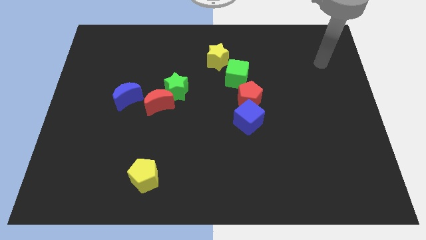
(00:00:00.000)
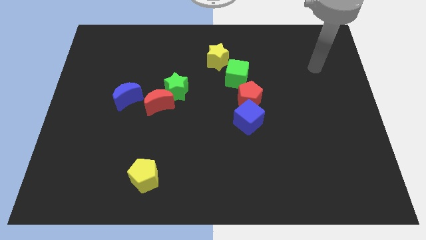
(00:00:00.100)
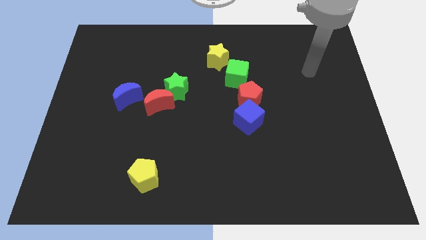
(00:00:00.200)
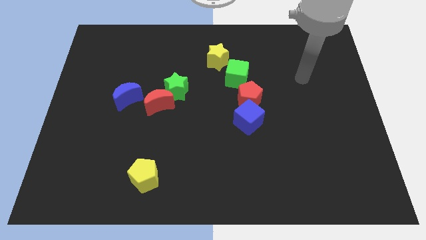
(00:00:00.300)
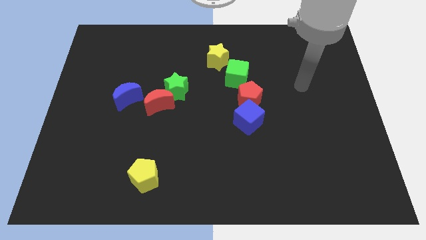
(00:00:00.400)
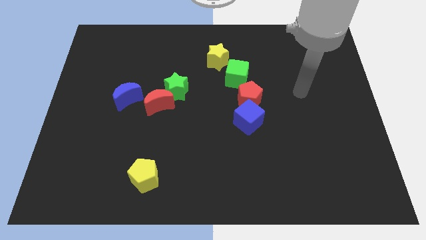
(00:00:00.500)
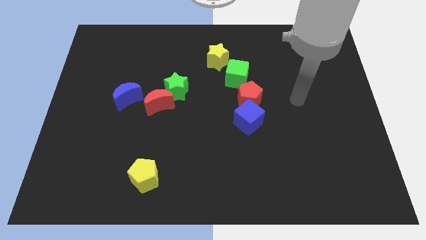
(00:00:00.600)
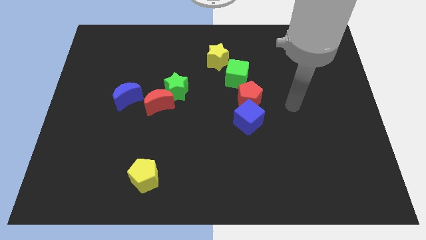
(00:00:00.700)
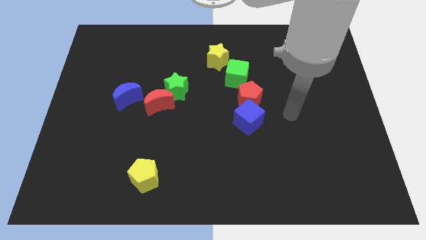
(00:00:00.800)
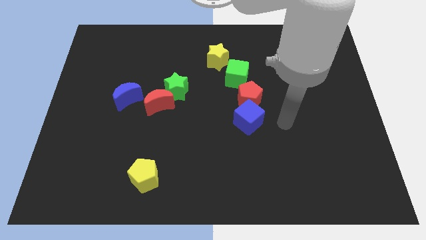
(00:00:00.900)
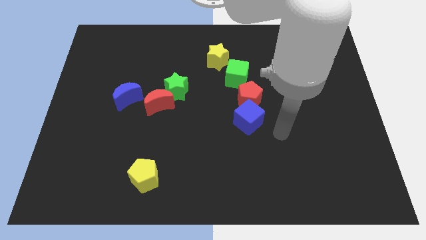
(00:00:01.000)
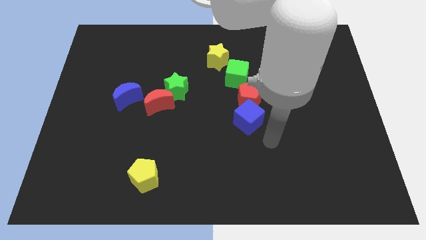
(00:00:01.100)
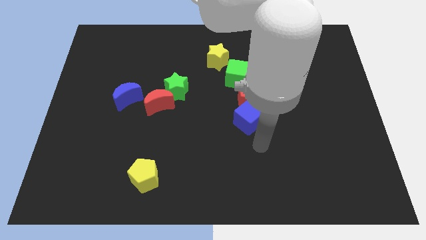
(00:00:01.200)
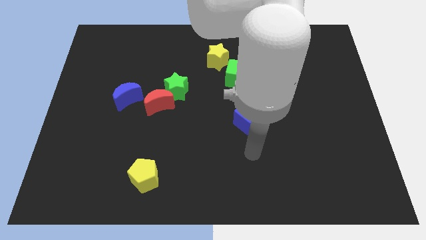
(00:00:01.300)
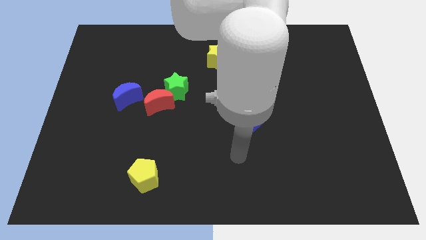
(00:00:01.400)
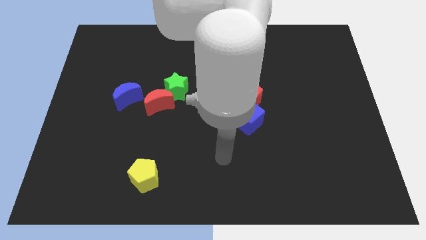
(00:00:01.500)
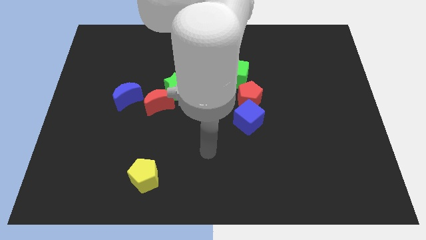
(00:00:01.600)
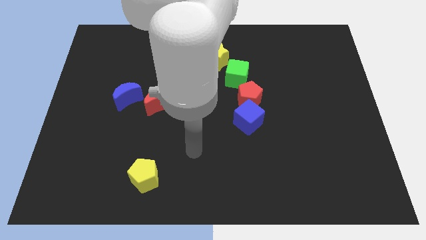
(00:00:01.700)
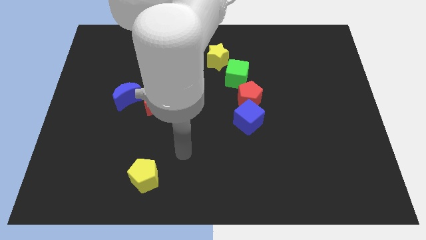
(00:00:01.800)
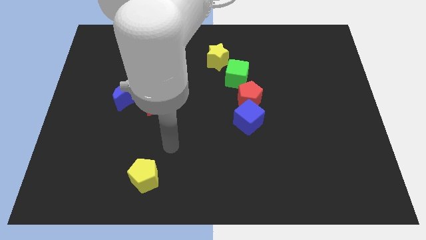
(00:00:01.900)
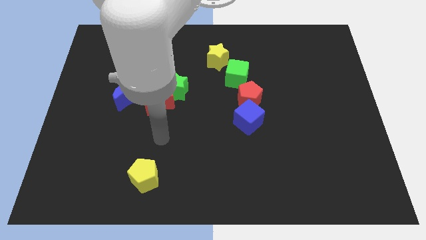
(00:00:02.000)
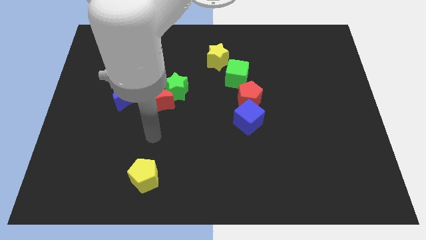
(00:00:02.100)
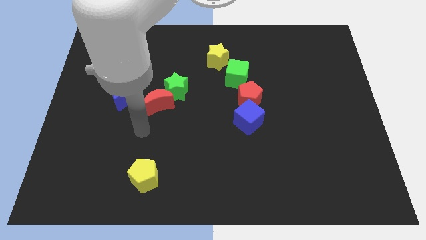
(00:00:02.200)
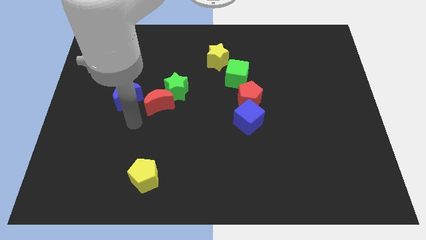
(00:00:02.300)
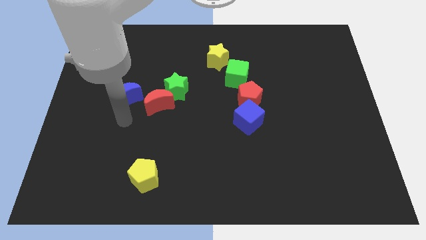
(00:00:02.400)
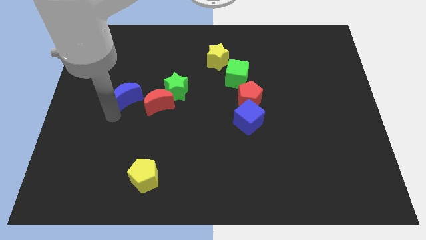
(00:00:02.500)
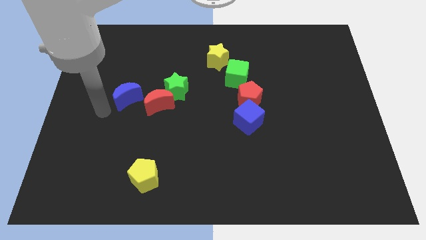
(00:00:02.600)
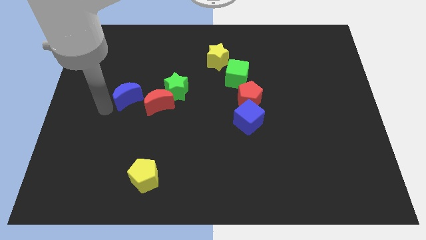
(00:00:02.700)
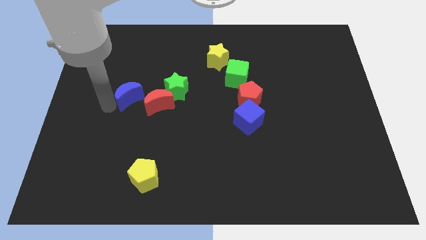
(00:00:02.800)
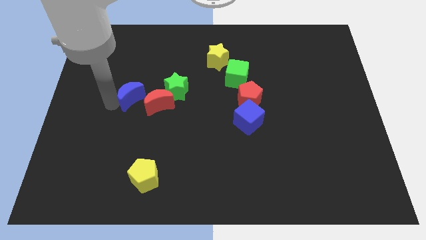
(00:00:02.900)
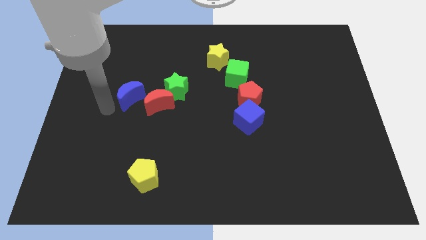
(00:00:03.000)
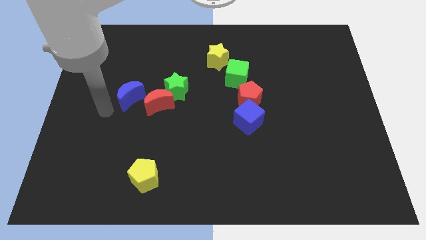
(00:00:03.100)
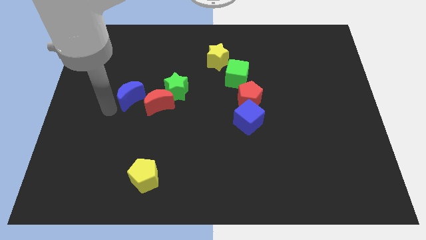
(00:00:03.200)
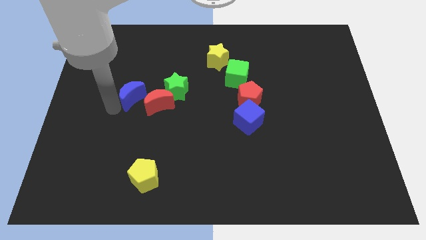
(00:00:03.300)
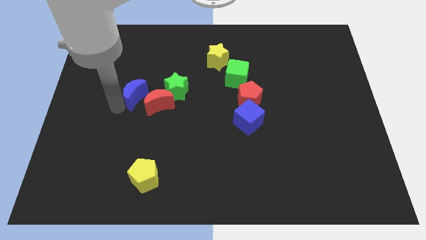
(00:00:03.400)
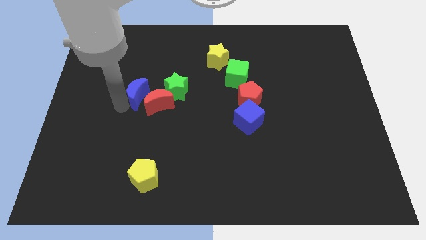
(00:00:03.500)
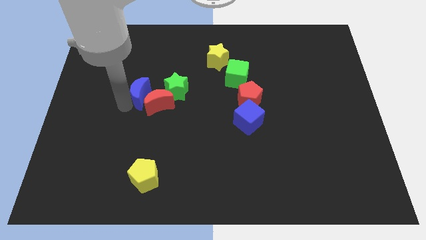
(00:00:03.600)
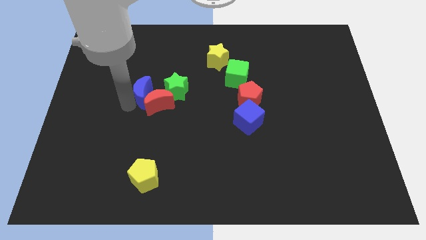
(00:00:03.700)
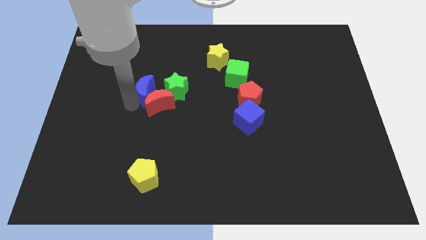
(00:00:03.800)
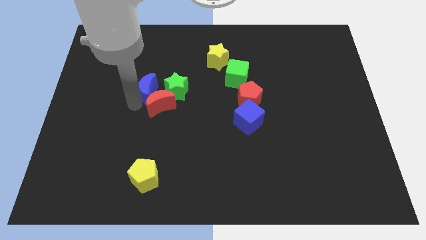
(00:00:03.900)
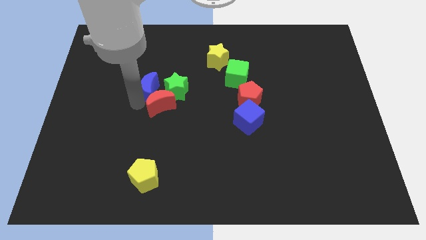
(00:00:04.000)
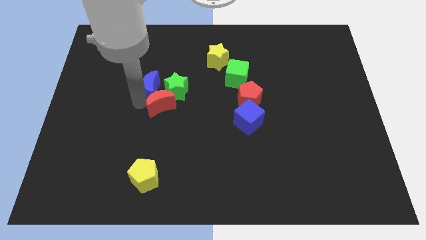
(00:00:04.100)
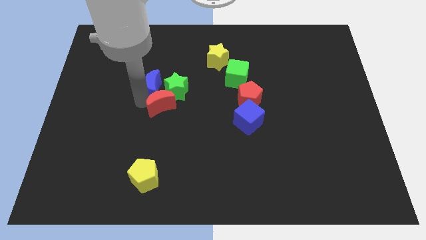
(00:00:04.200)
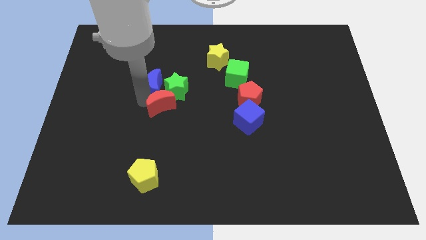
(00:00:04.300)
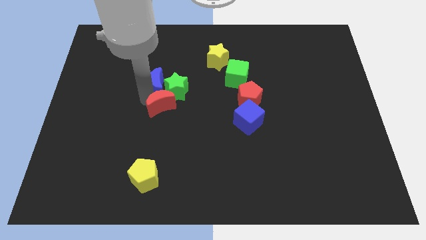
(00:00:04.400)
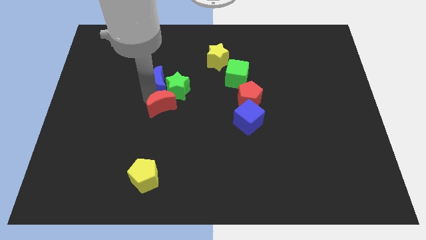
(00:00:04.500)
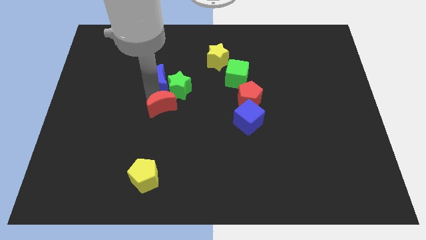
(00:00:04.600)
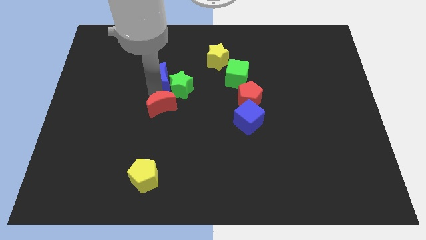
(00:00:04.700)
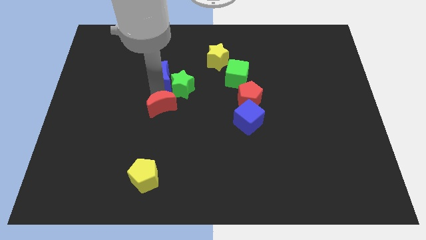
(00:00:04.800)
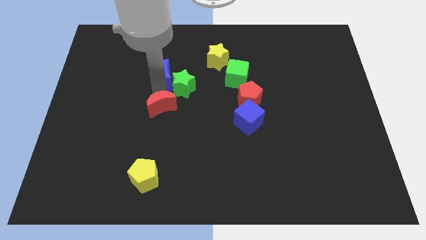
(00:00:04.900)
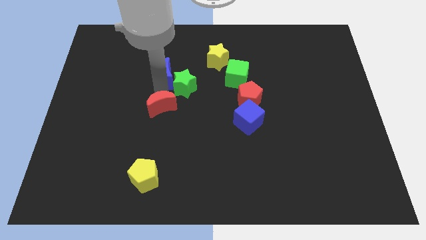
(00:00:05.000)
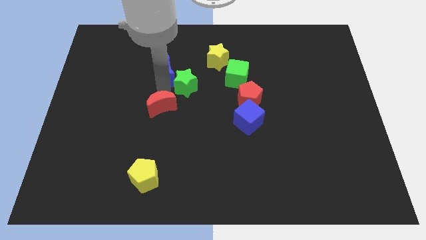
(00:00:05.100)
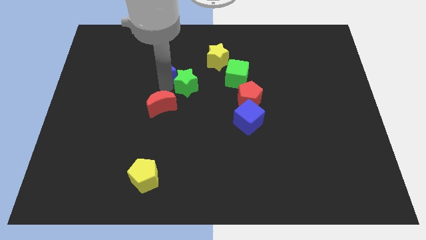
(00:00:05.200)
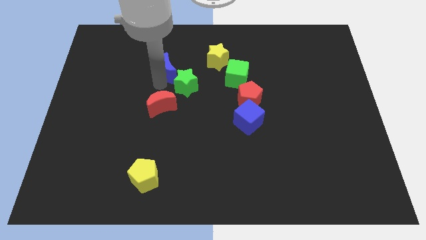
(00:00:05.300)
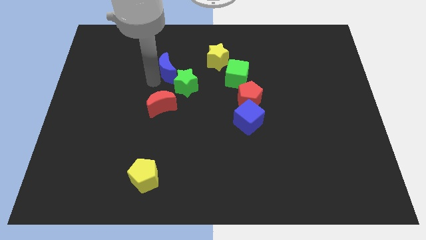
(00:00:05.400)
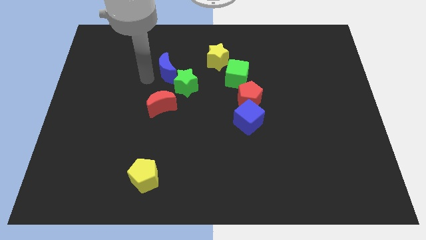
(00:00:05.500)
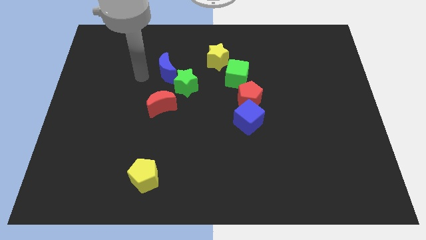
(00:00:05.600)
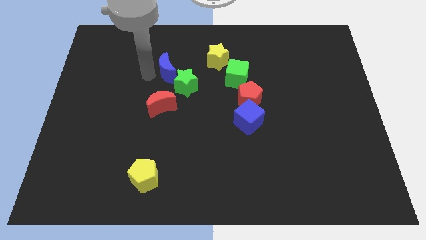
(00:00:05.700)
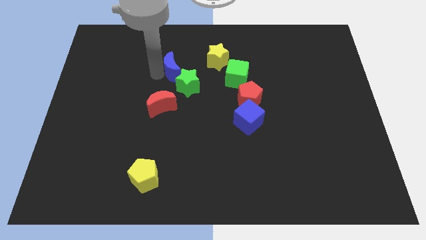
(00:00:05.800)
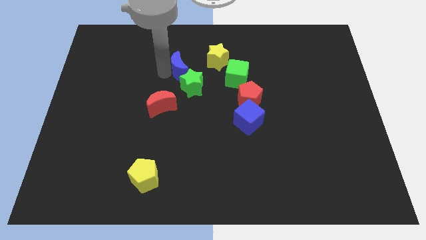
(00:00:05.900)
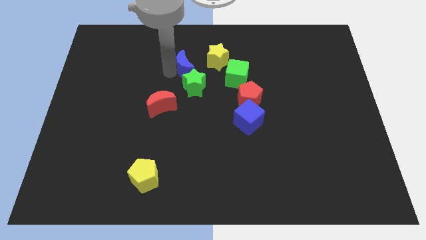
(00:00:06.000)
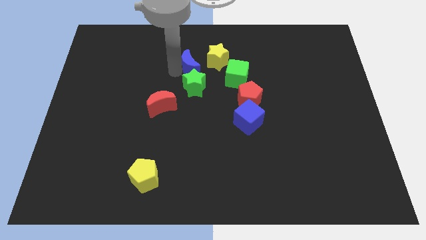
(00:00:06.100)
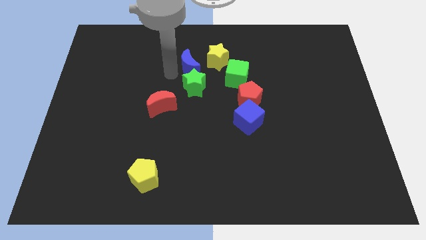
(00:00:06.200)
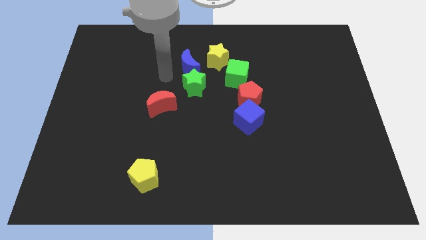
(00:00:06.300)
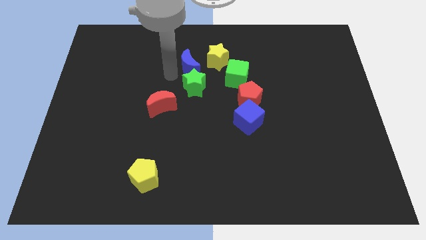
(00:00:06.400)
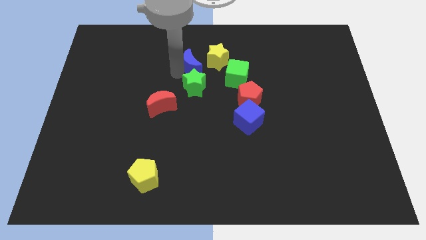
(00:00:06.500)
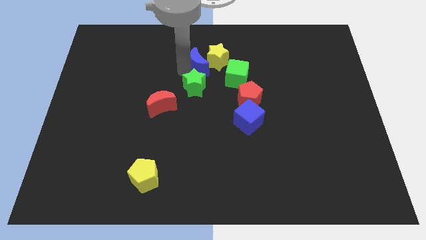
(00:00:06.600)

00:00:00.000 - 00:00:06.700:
slide the blue moon to the yellow star

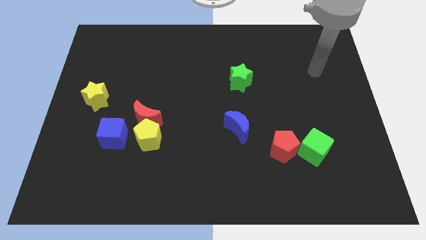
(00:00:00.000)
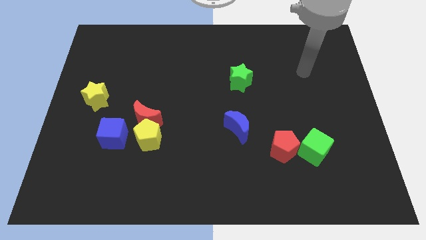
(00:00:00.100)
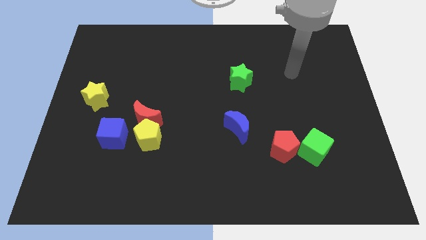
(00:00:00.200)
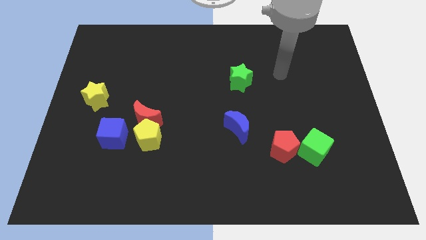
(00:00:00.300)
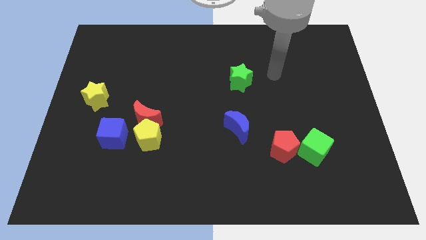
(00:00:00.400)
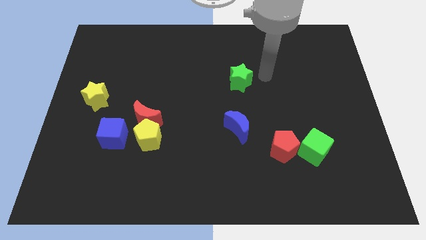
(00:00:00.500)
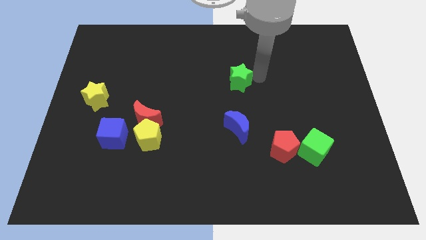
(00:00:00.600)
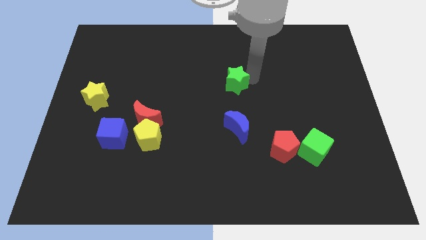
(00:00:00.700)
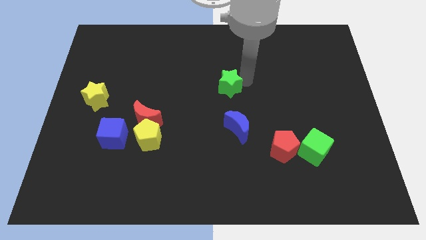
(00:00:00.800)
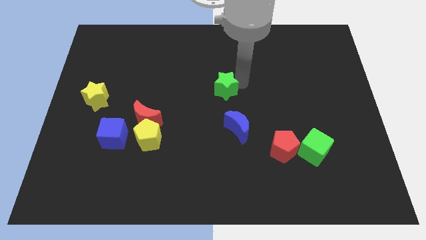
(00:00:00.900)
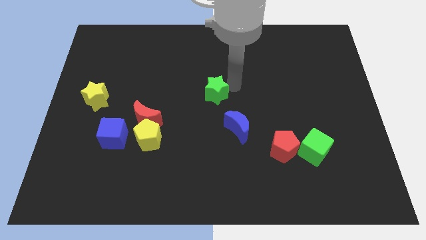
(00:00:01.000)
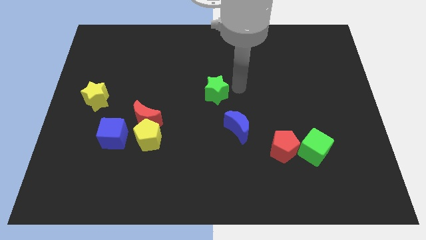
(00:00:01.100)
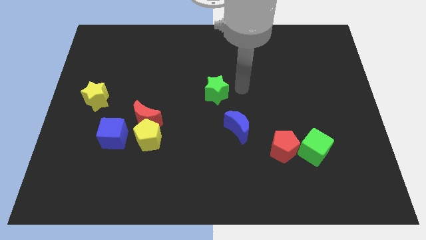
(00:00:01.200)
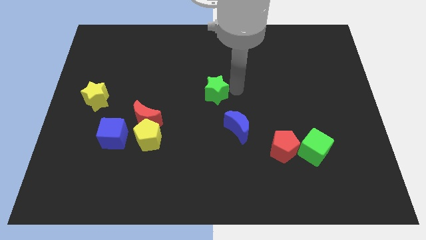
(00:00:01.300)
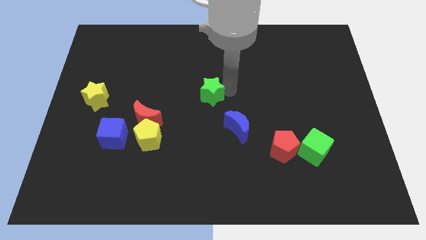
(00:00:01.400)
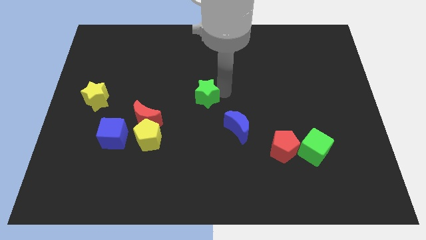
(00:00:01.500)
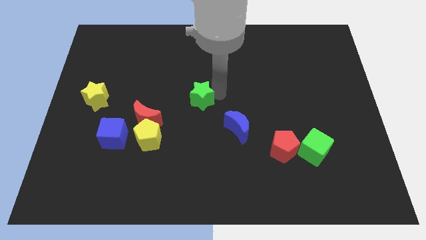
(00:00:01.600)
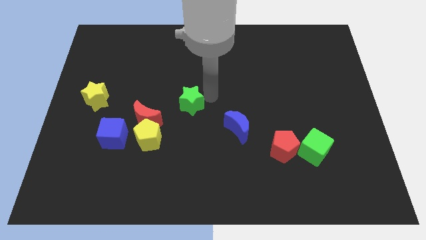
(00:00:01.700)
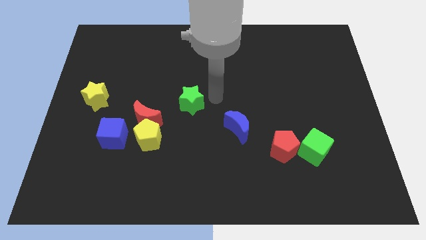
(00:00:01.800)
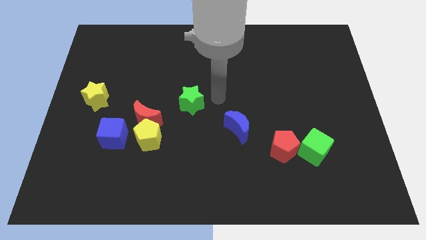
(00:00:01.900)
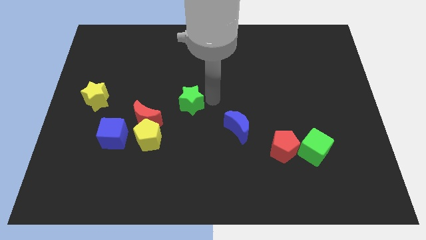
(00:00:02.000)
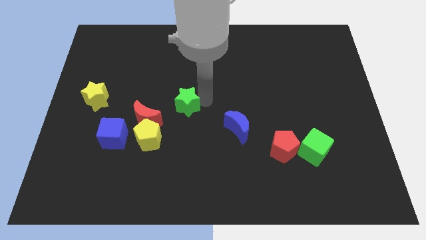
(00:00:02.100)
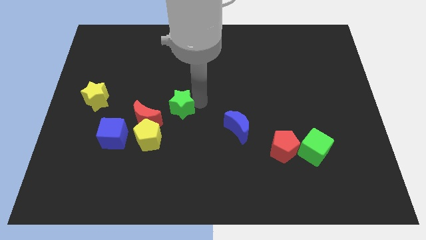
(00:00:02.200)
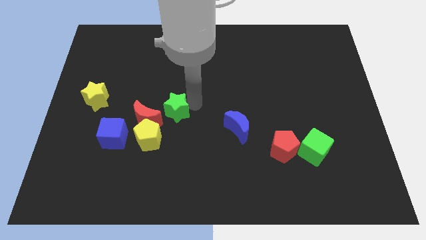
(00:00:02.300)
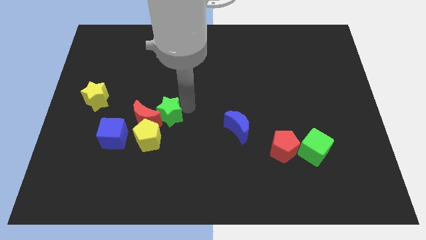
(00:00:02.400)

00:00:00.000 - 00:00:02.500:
put the green star next to the red moon
